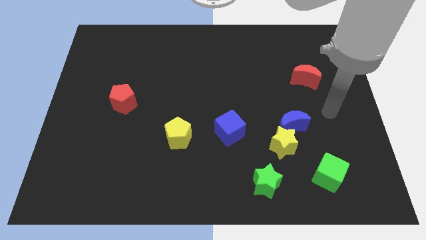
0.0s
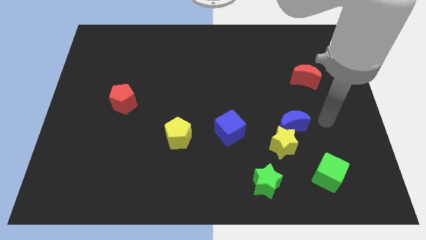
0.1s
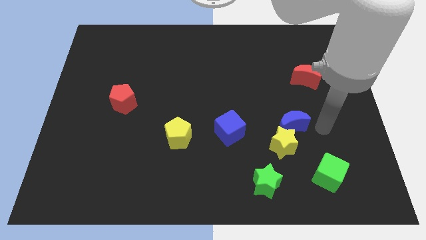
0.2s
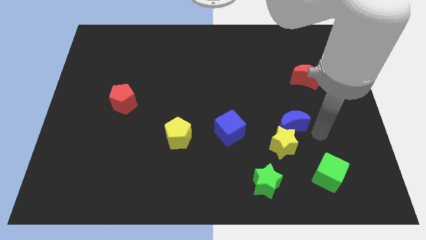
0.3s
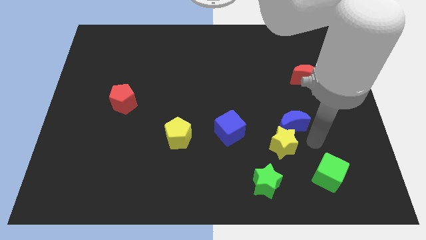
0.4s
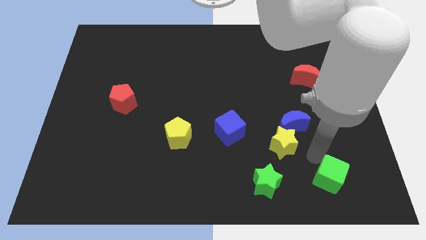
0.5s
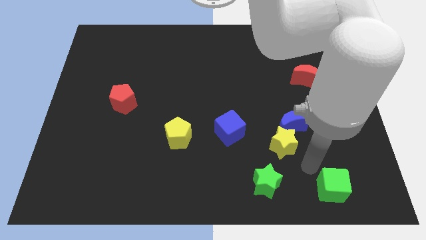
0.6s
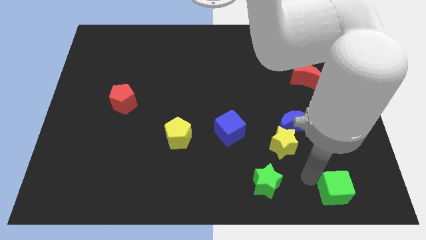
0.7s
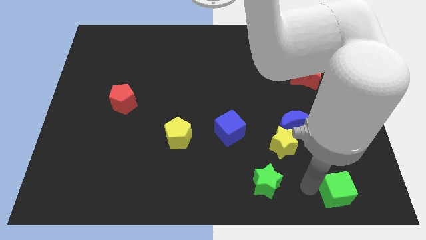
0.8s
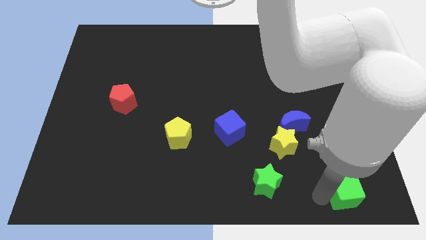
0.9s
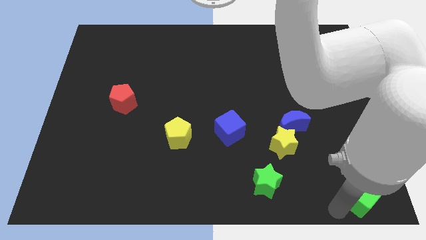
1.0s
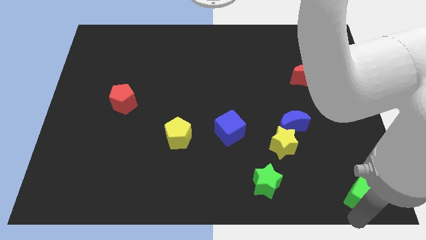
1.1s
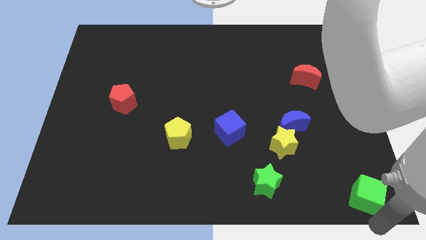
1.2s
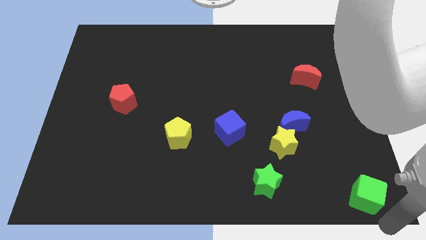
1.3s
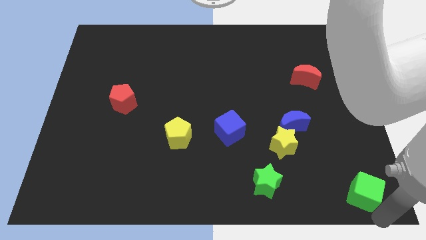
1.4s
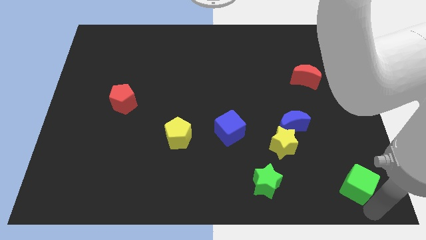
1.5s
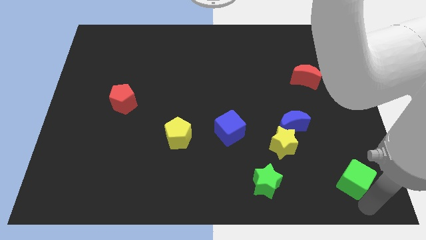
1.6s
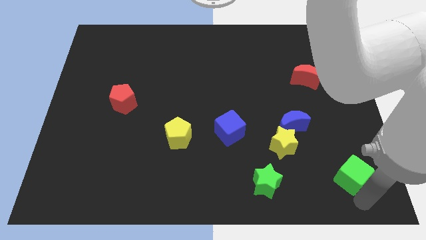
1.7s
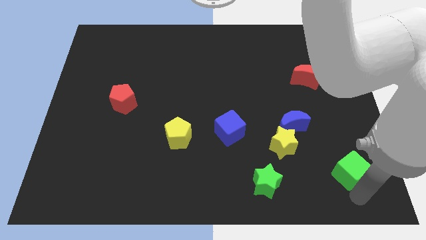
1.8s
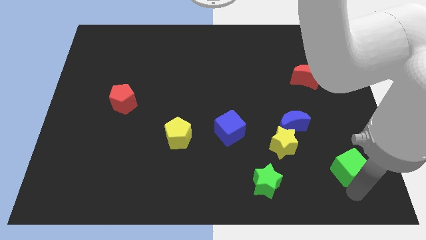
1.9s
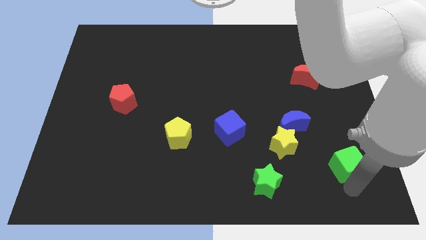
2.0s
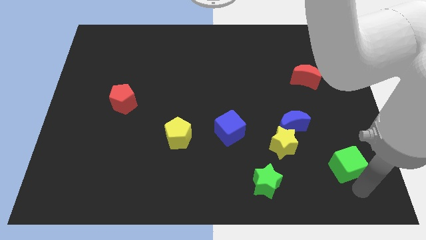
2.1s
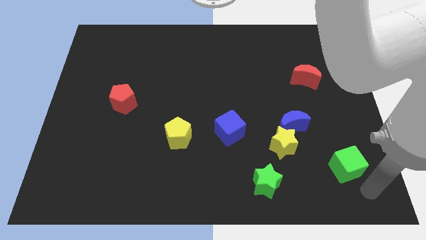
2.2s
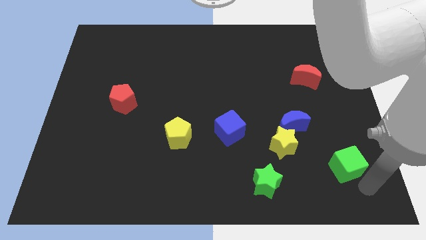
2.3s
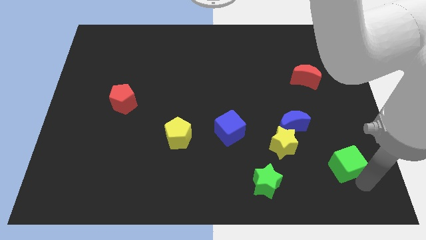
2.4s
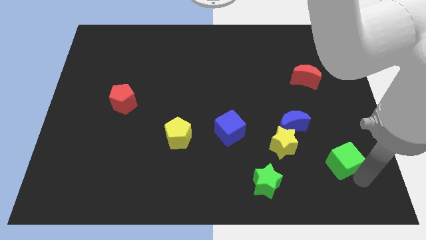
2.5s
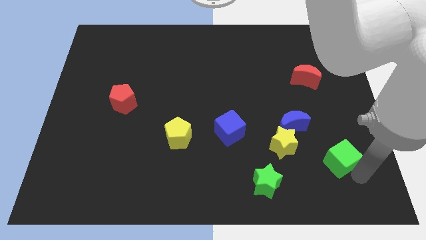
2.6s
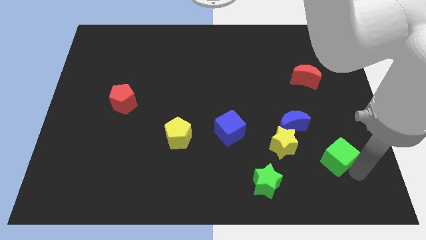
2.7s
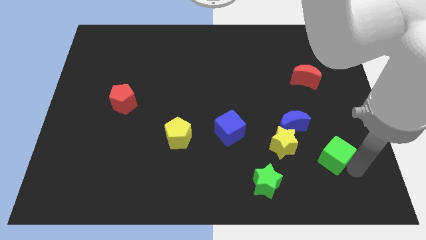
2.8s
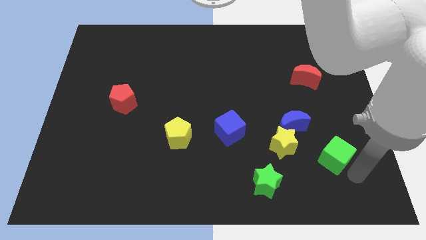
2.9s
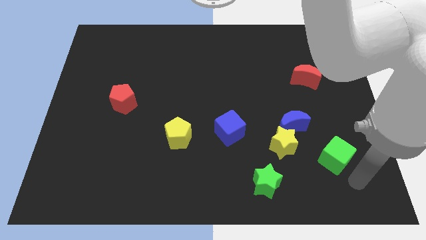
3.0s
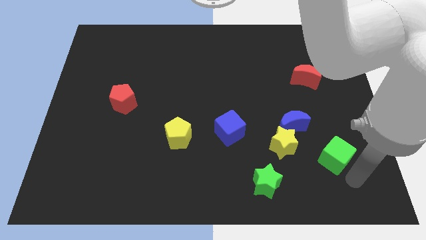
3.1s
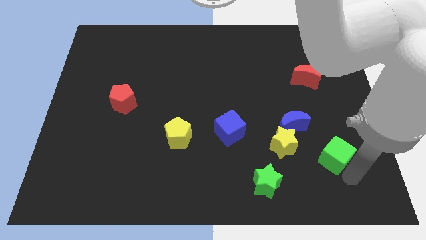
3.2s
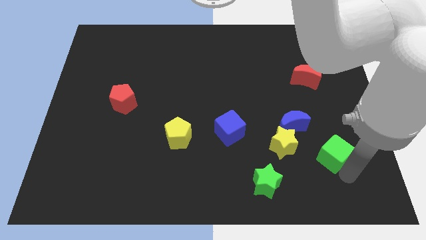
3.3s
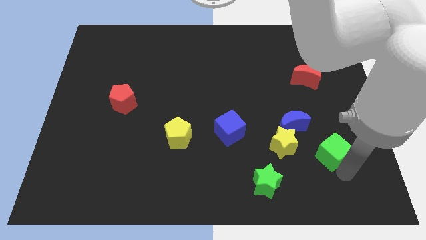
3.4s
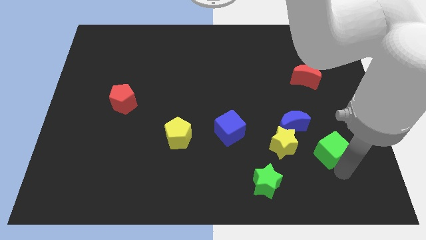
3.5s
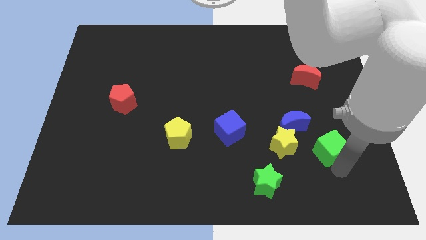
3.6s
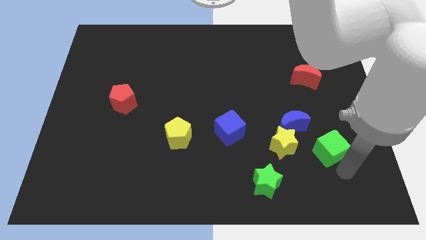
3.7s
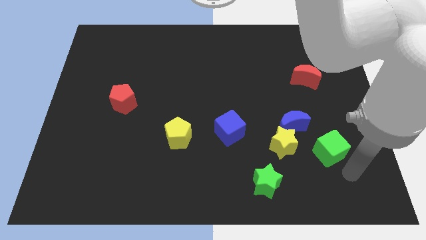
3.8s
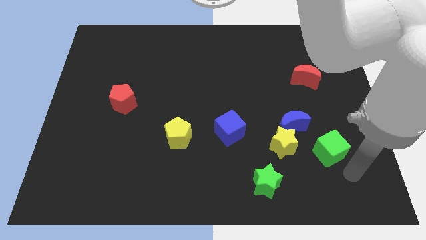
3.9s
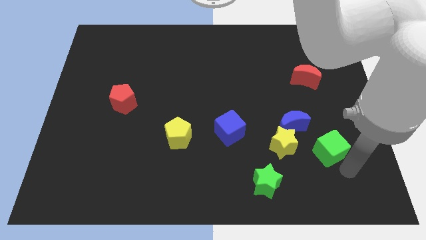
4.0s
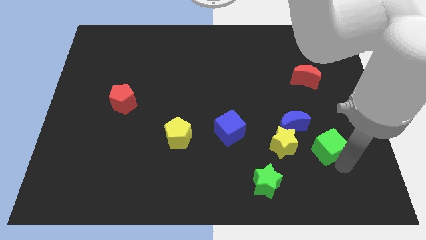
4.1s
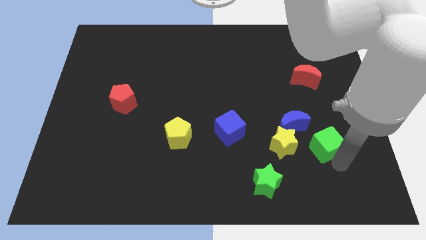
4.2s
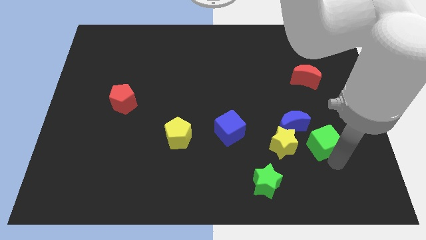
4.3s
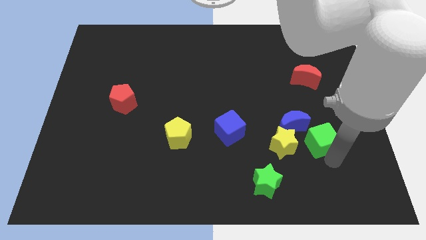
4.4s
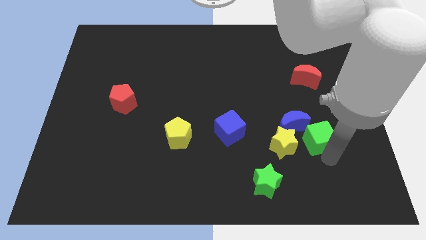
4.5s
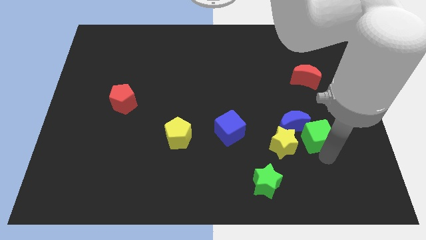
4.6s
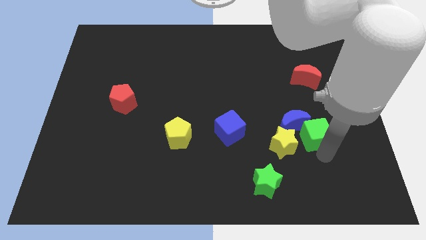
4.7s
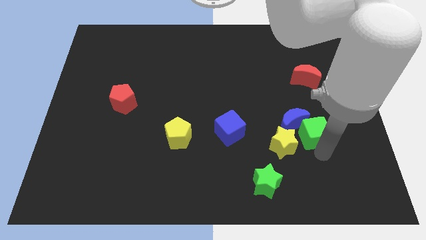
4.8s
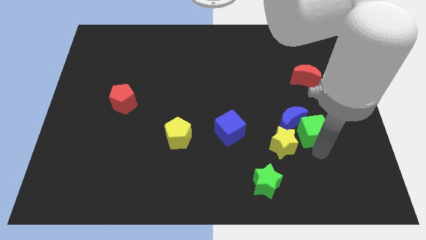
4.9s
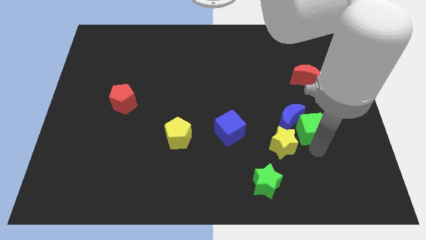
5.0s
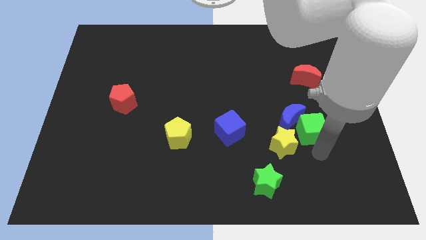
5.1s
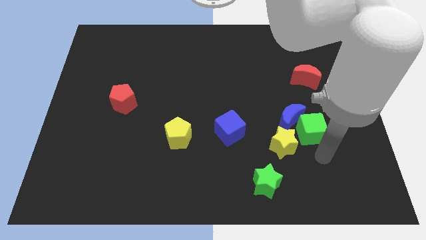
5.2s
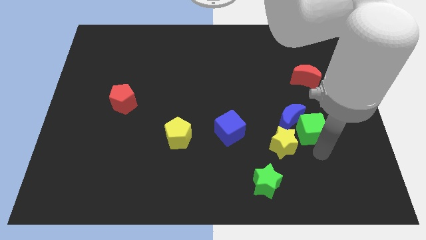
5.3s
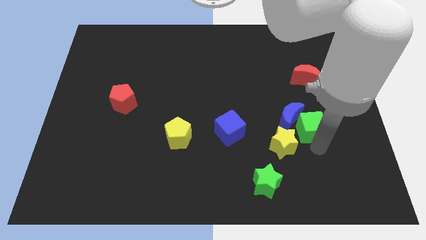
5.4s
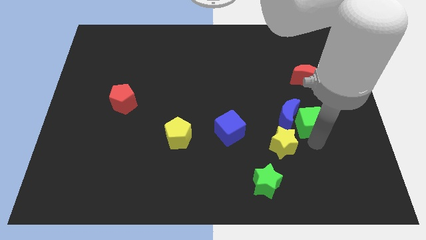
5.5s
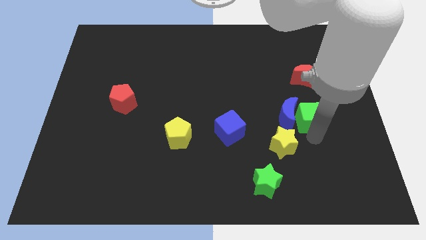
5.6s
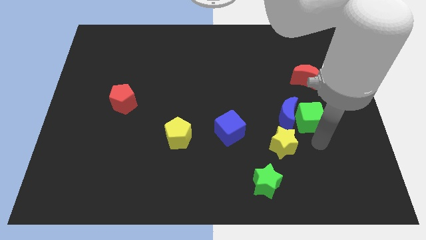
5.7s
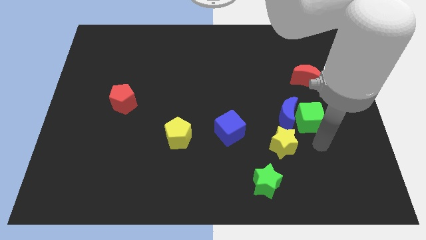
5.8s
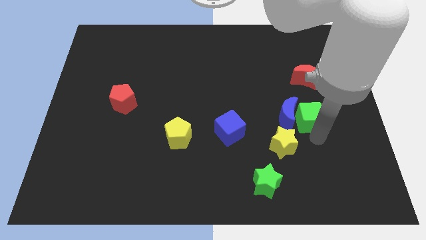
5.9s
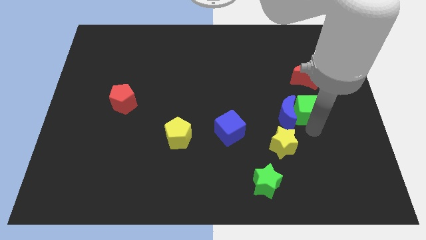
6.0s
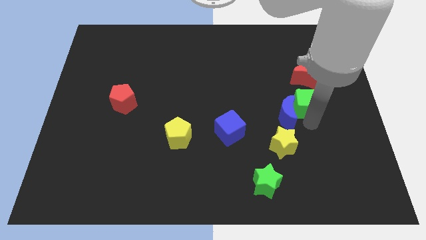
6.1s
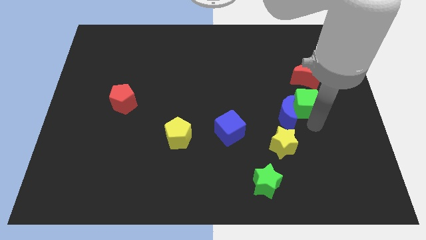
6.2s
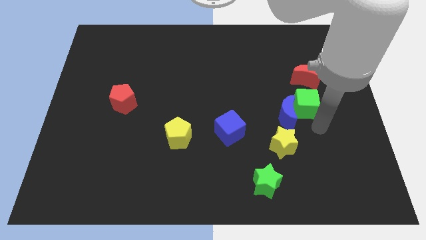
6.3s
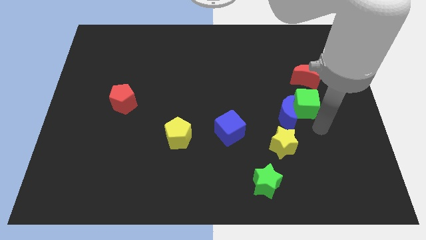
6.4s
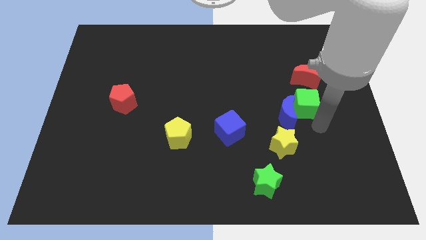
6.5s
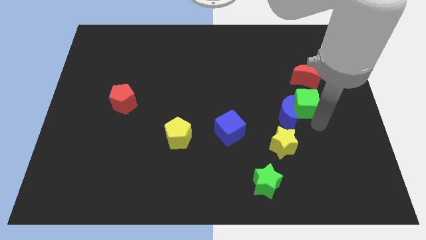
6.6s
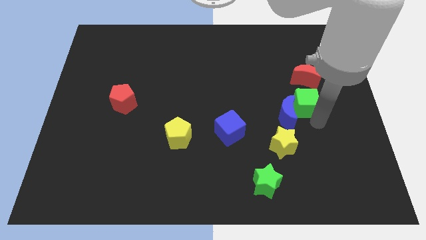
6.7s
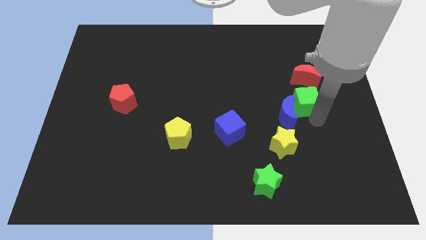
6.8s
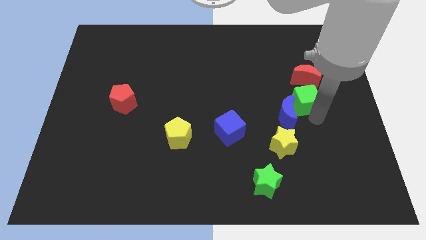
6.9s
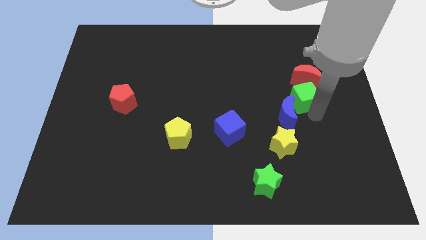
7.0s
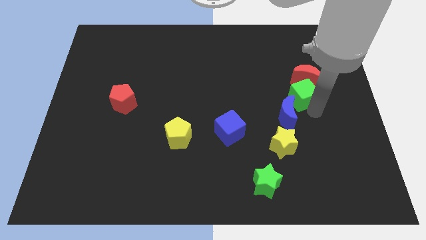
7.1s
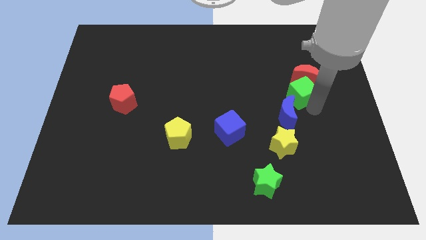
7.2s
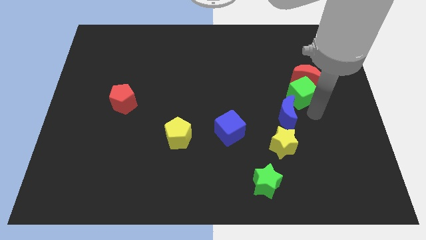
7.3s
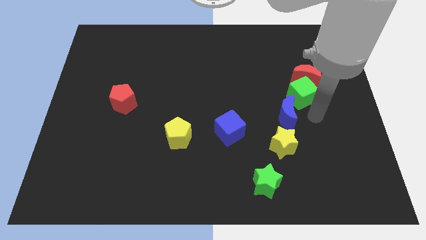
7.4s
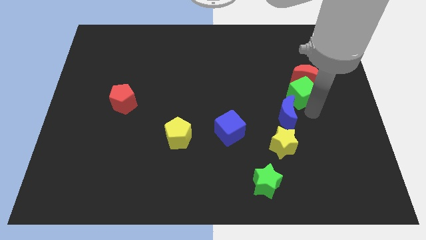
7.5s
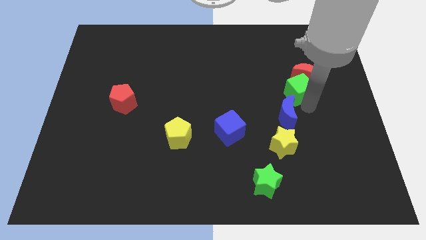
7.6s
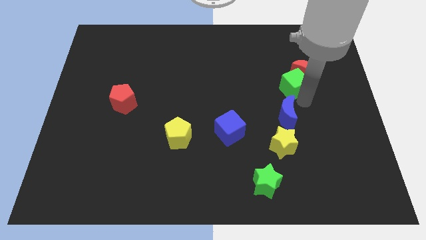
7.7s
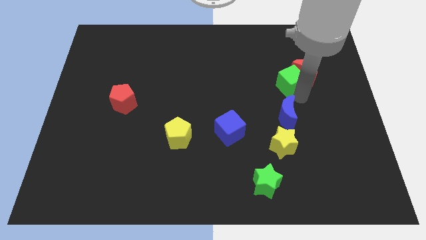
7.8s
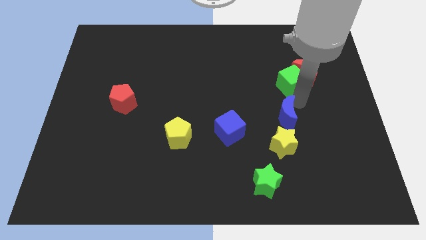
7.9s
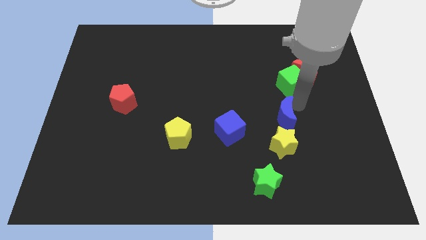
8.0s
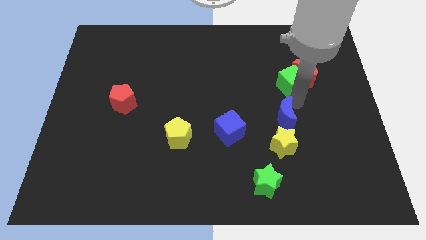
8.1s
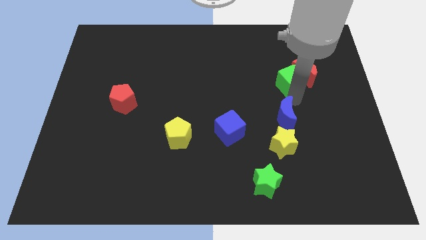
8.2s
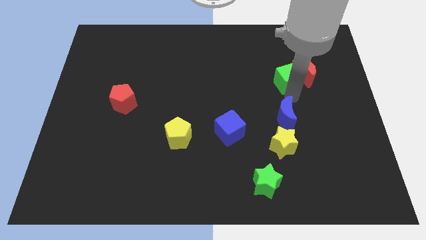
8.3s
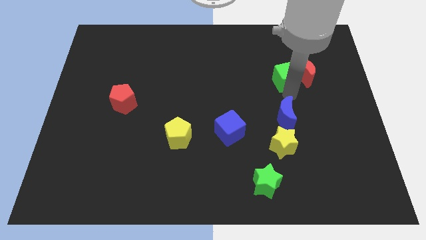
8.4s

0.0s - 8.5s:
put the green cube to the top left side of the red moon
